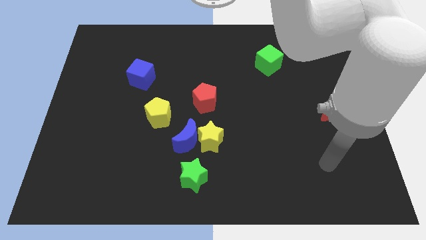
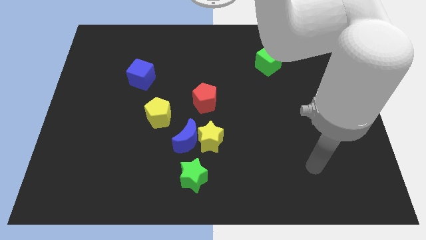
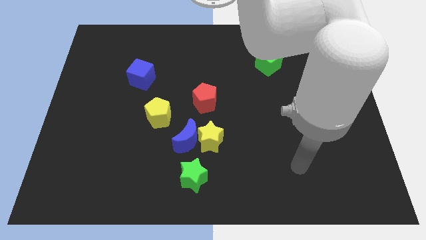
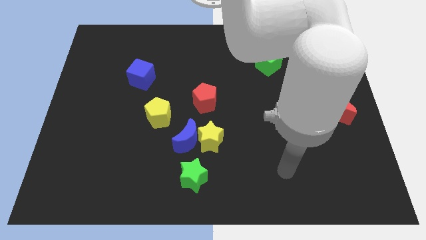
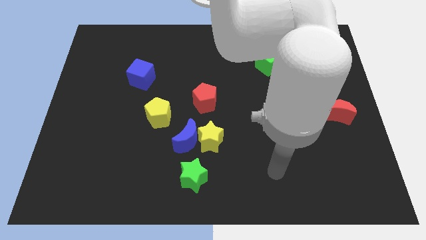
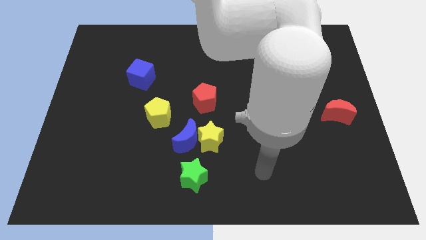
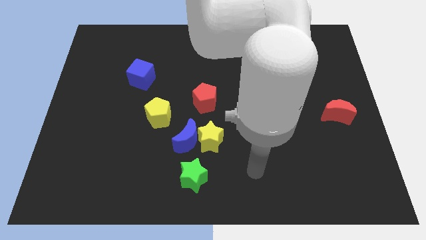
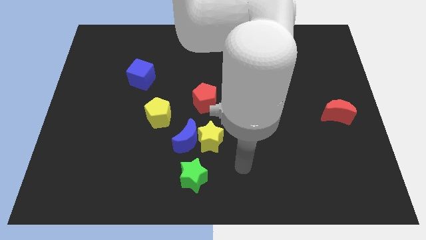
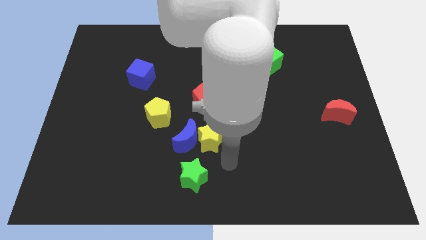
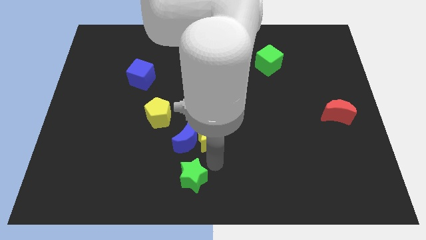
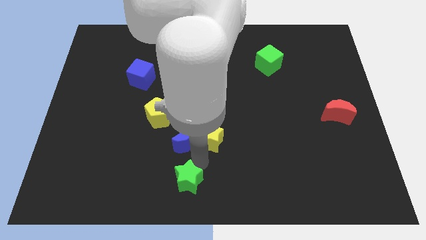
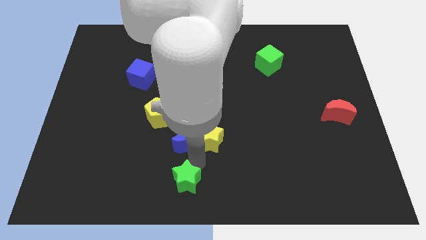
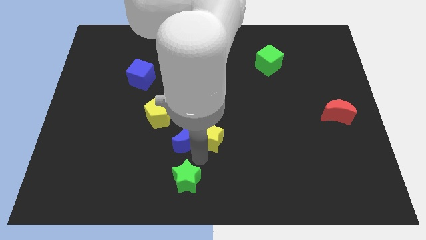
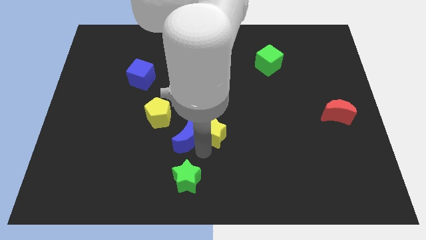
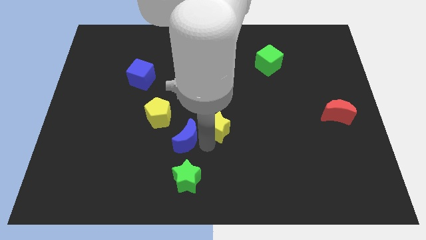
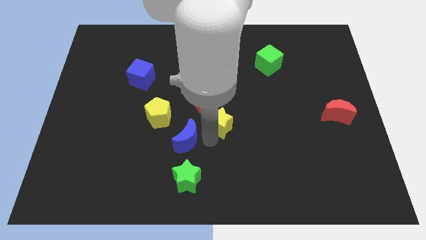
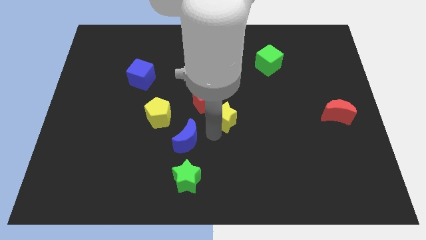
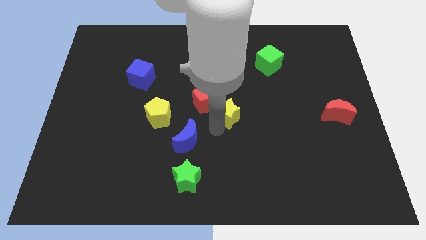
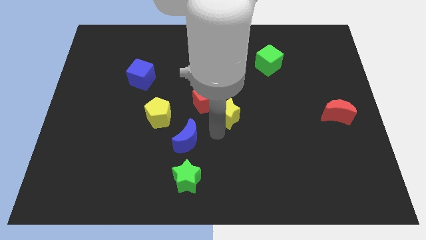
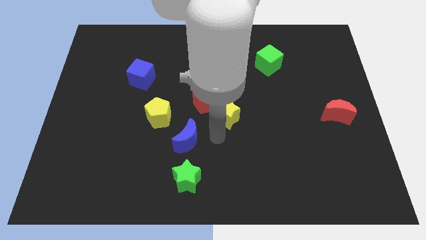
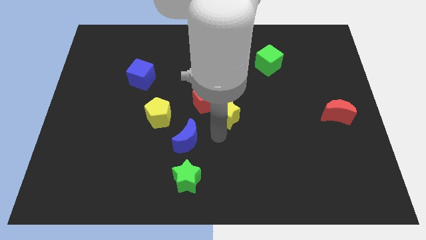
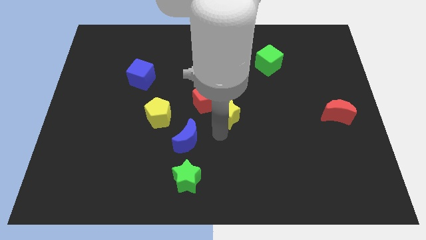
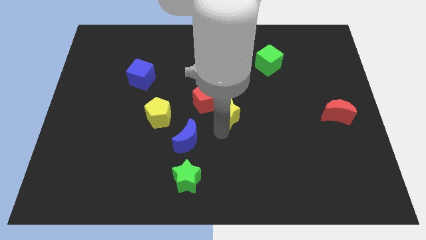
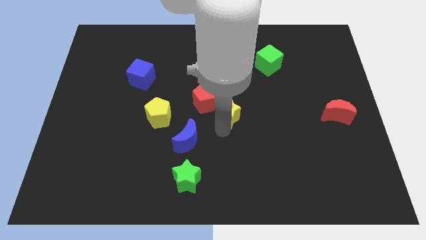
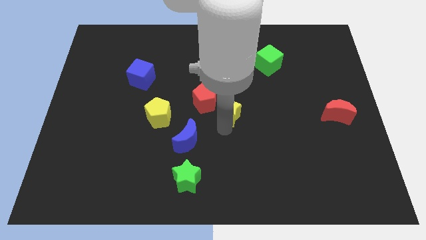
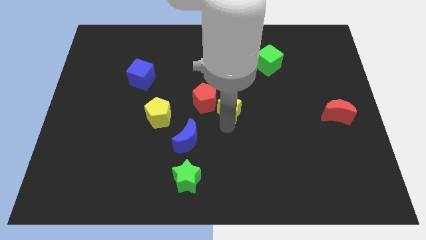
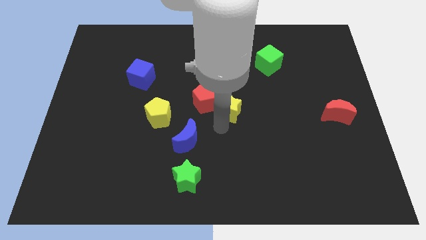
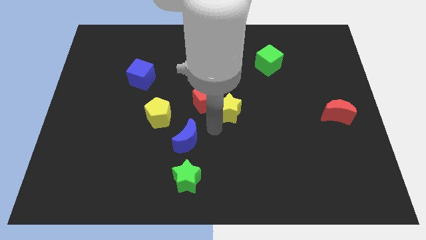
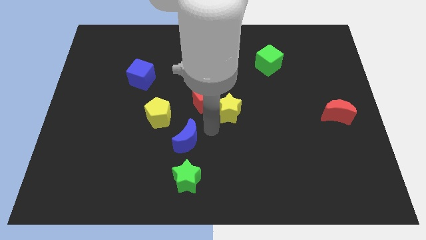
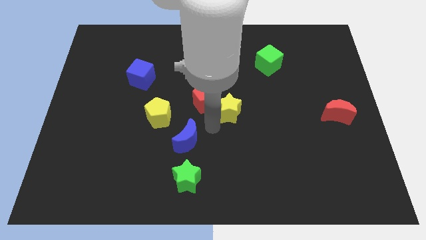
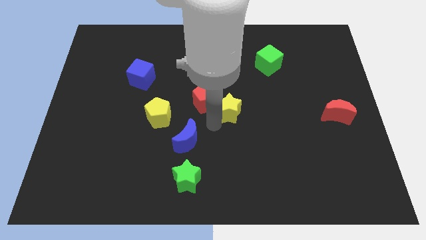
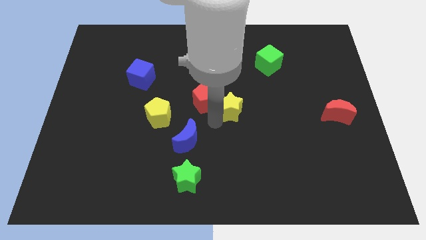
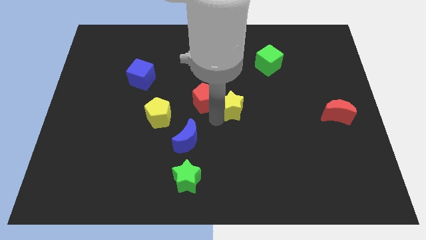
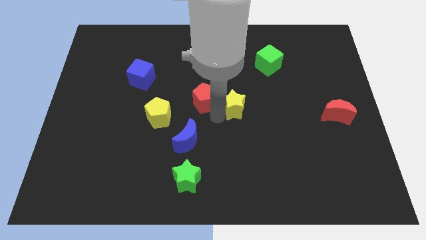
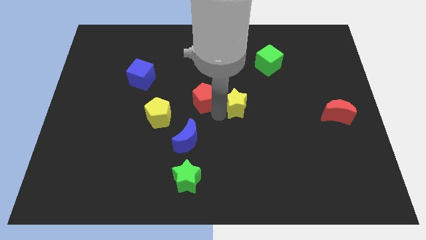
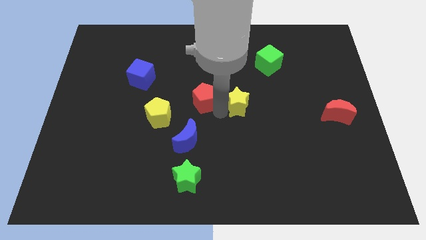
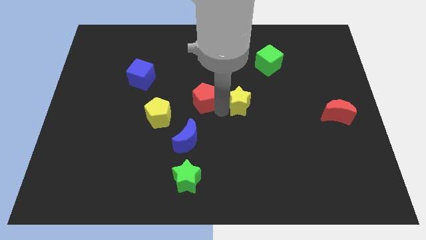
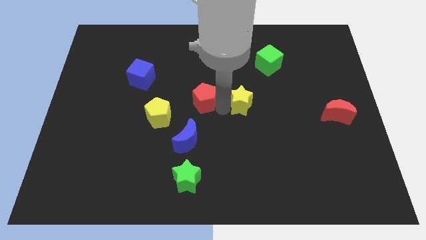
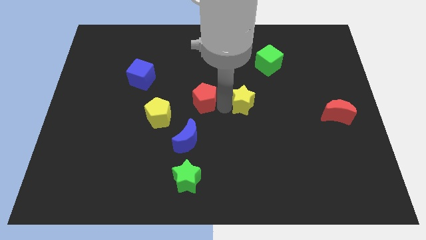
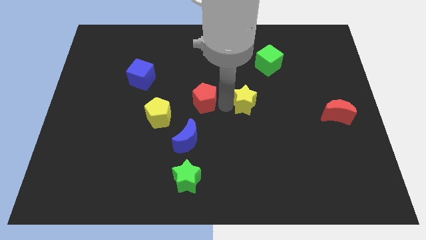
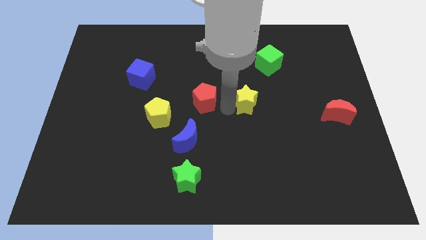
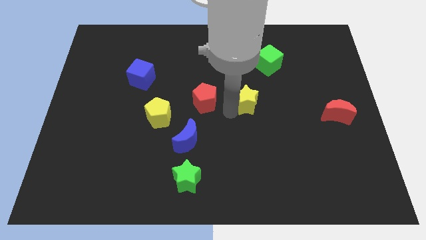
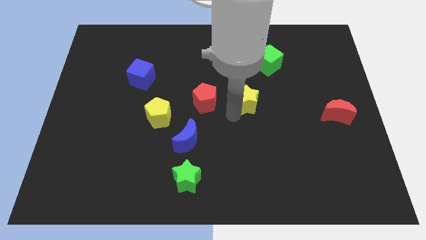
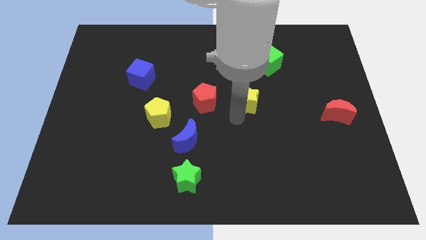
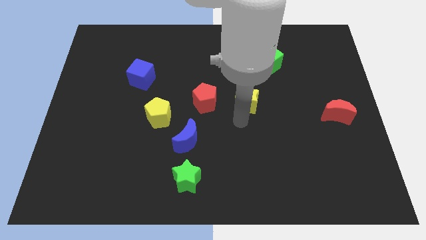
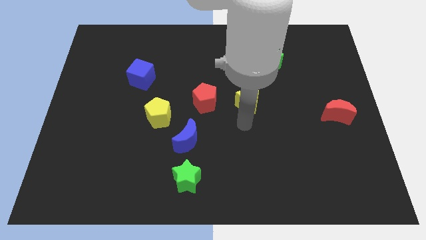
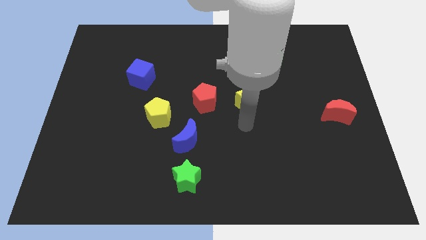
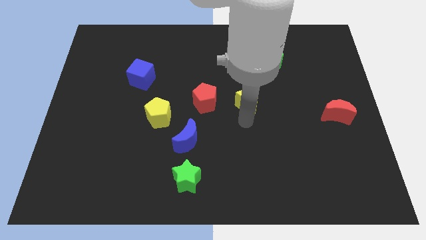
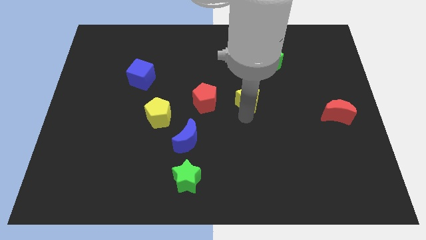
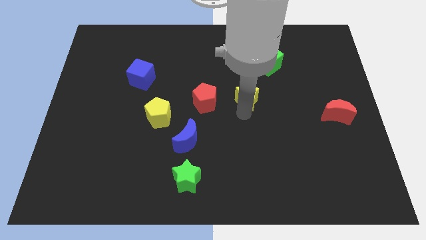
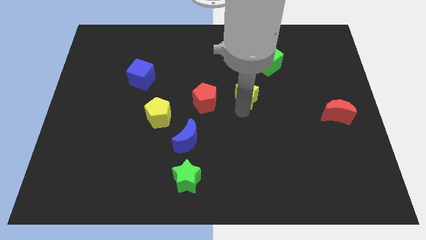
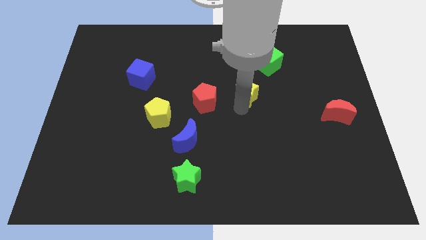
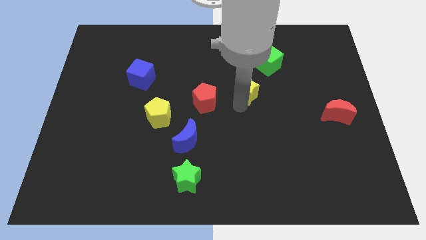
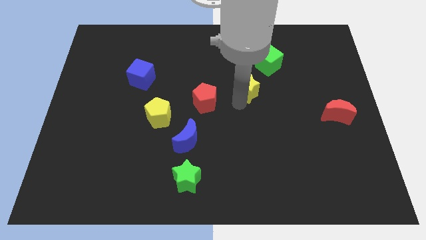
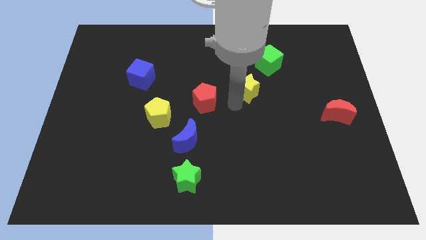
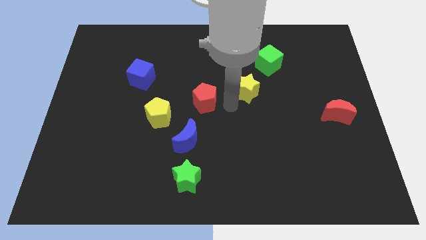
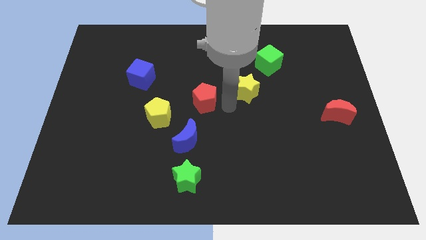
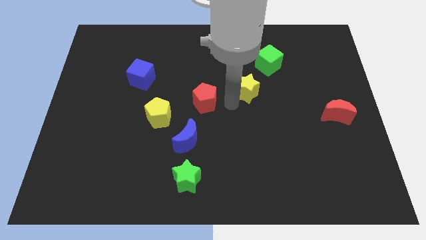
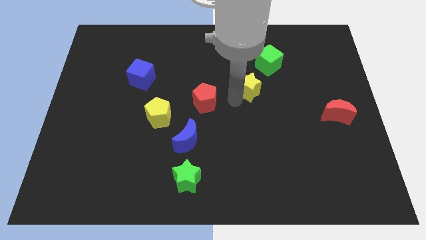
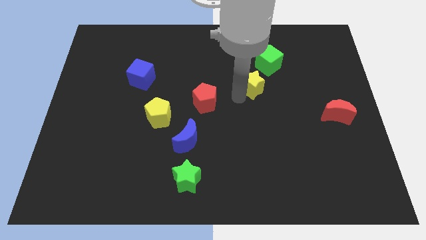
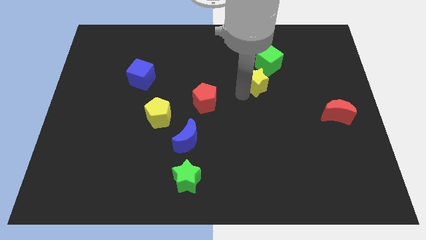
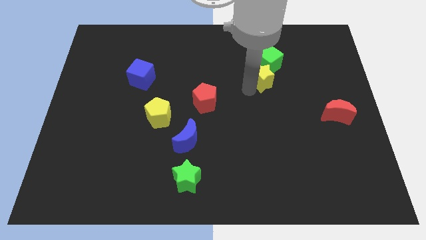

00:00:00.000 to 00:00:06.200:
slide the yellow star to the green cube

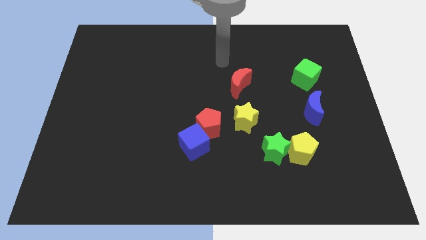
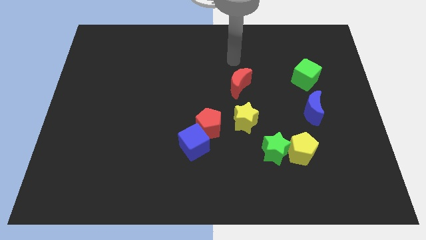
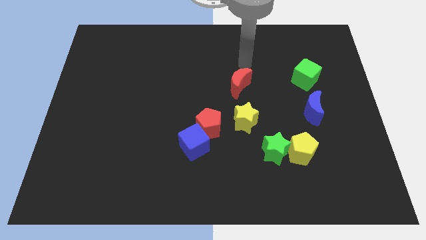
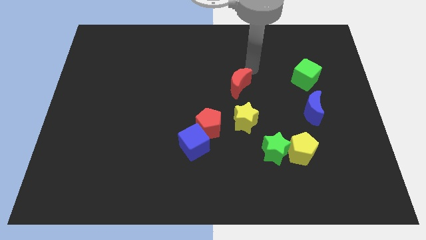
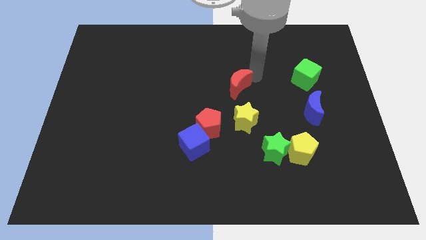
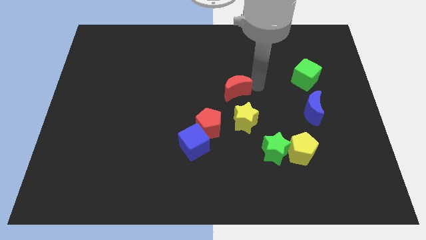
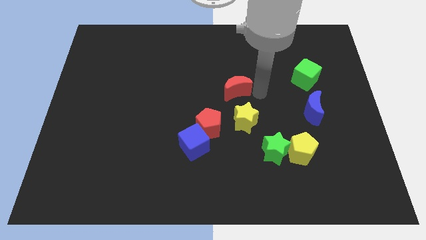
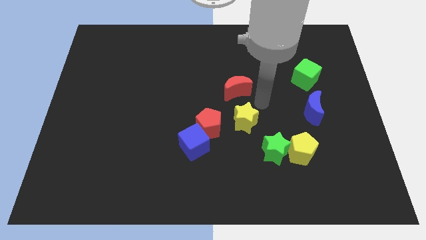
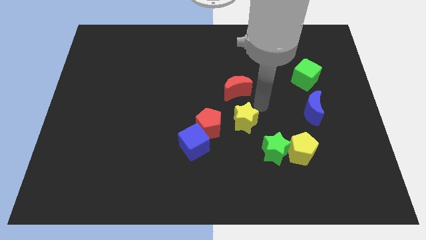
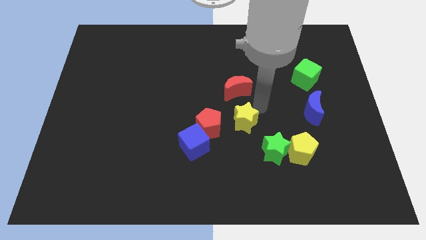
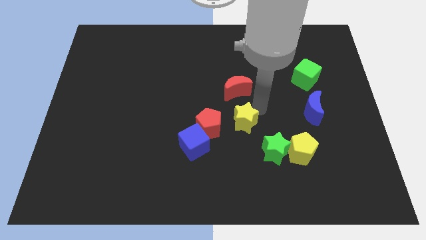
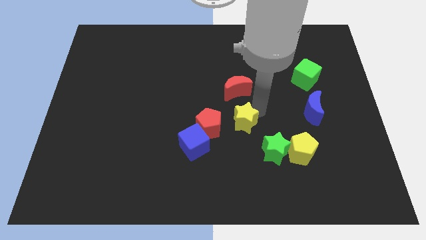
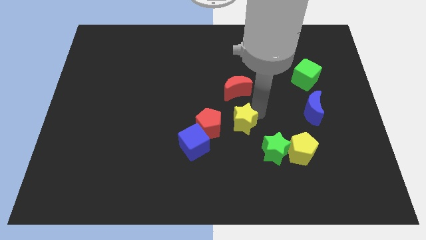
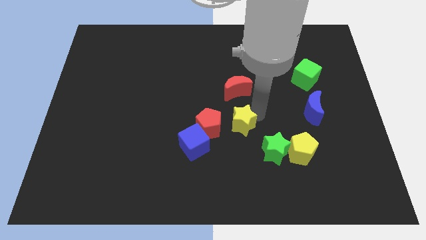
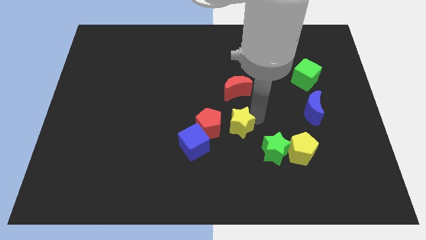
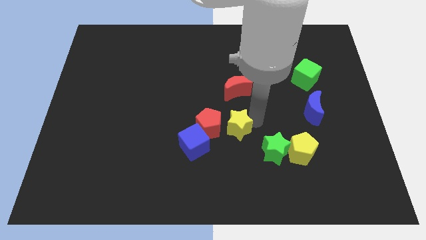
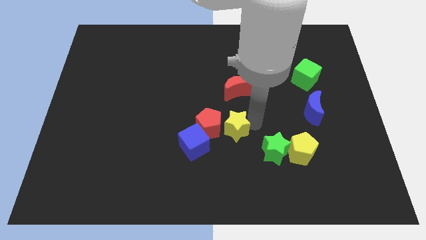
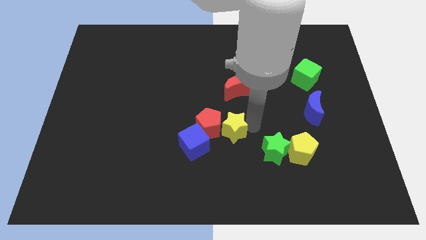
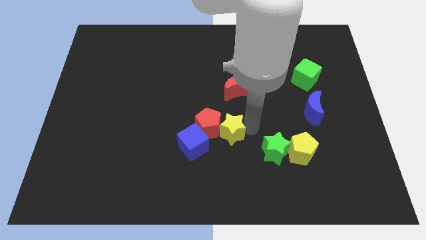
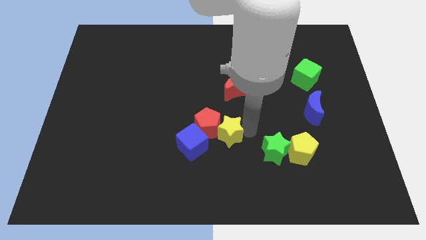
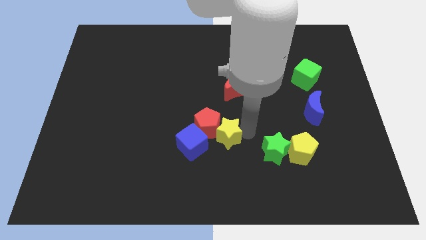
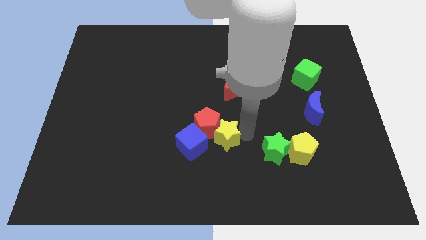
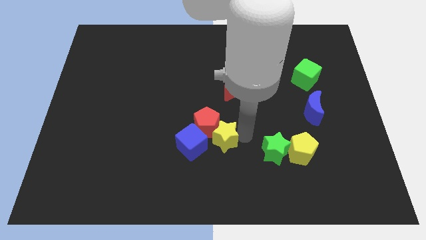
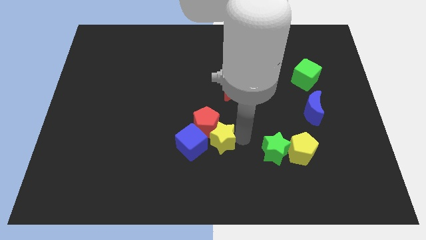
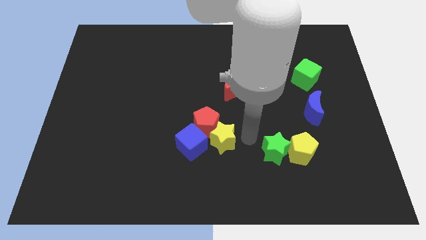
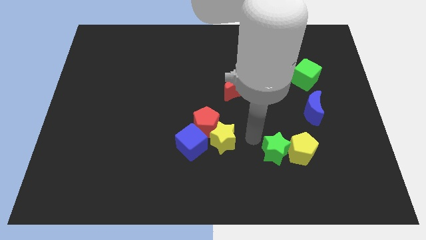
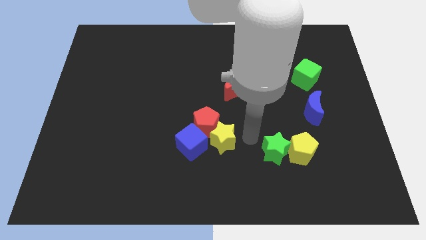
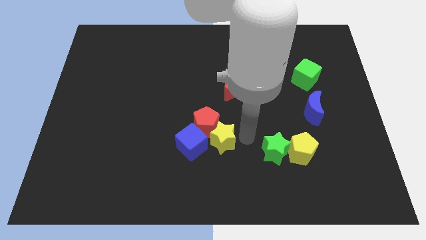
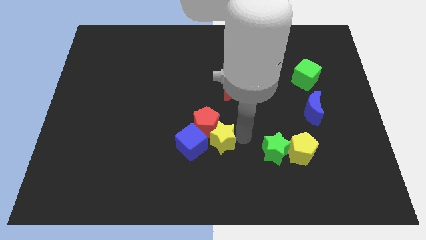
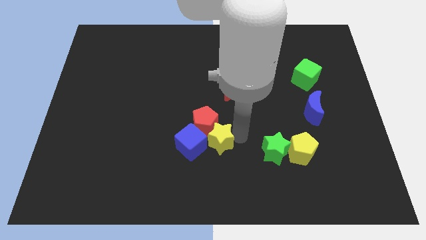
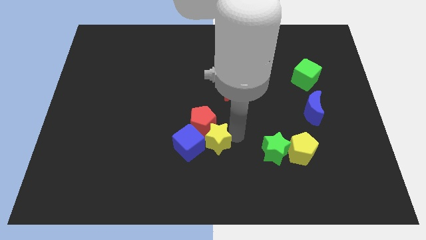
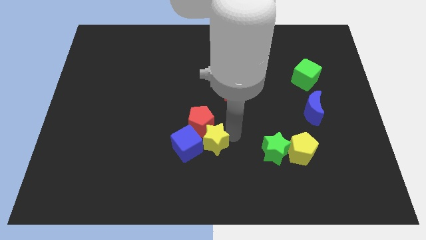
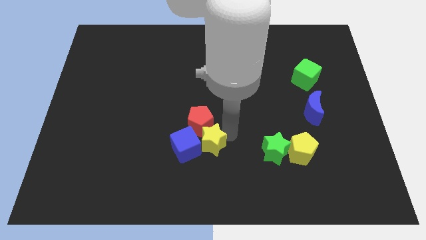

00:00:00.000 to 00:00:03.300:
push the yellow star next to the blue cube
